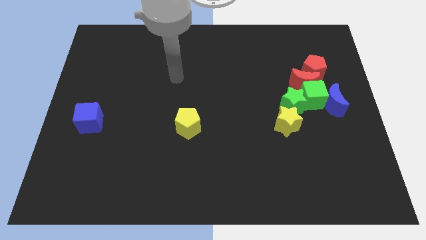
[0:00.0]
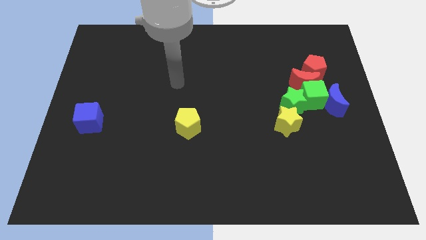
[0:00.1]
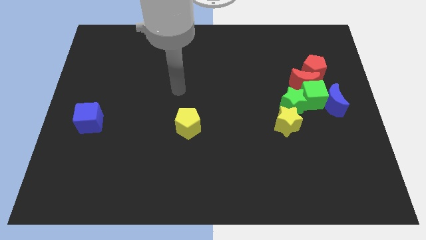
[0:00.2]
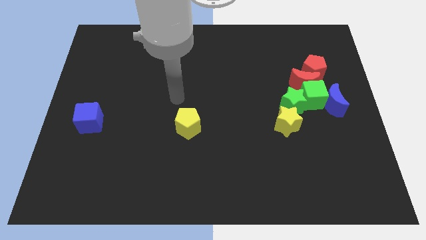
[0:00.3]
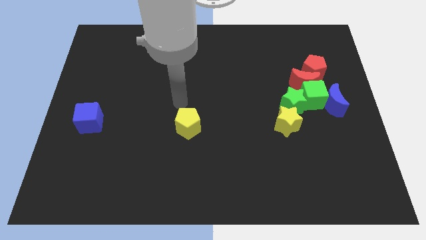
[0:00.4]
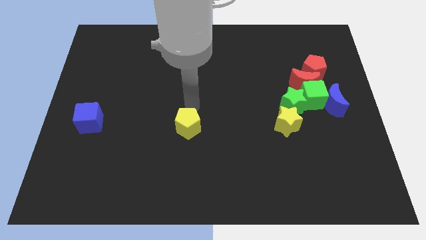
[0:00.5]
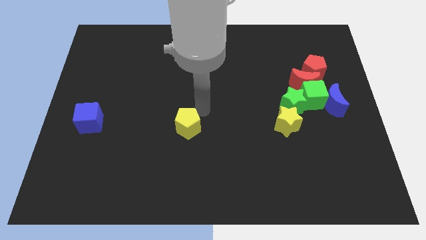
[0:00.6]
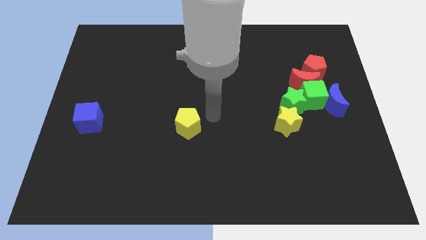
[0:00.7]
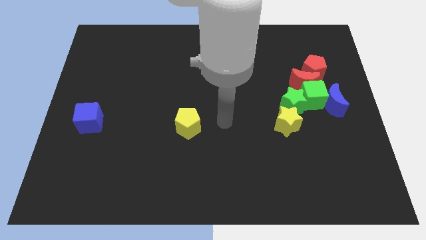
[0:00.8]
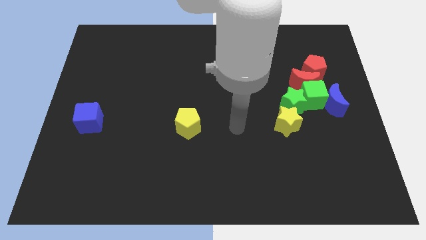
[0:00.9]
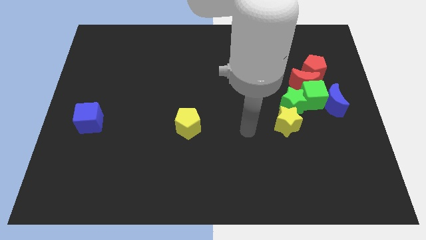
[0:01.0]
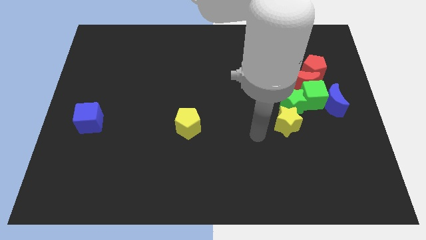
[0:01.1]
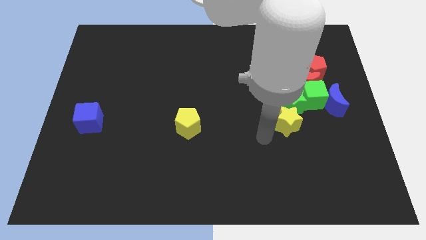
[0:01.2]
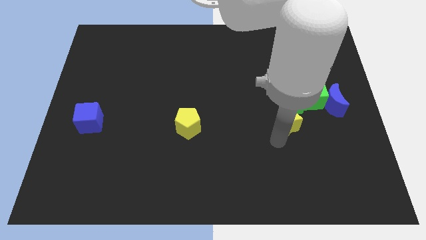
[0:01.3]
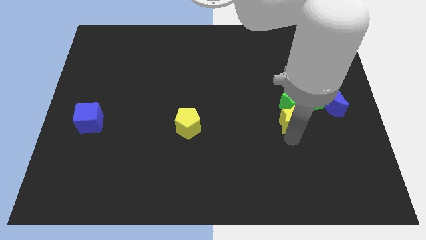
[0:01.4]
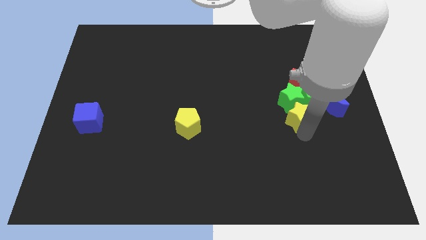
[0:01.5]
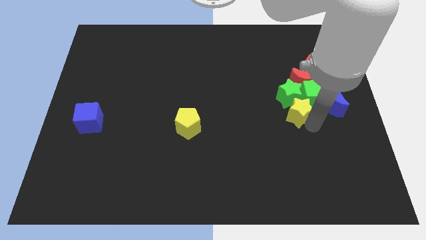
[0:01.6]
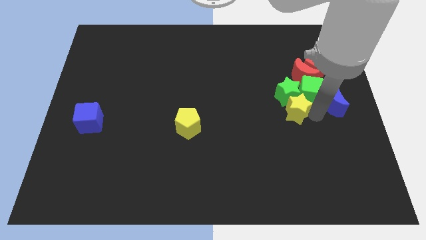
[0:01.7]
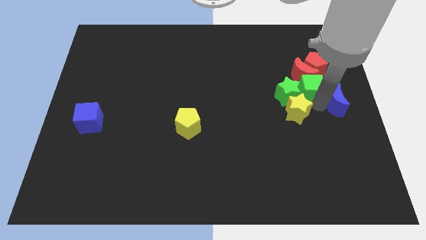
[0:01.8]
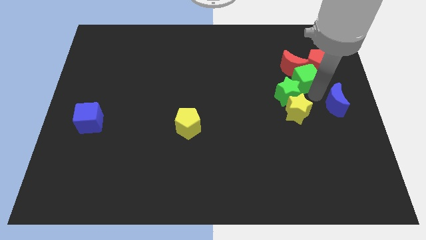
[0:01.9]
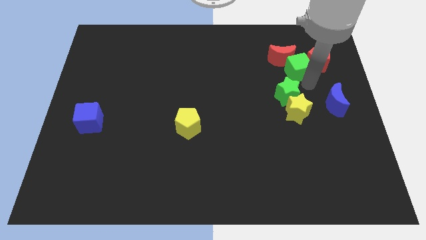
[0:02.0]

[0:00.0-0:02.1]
pull the red moon apart from the clump

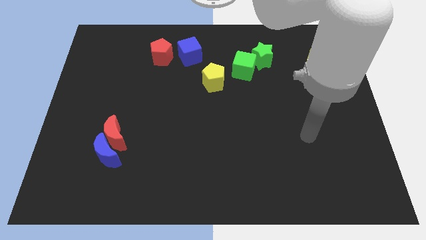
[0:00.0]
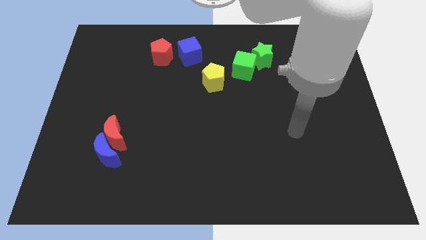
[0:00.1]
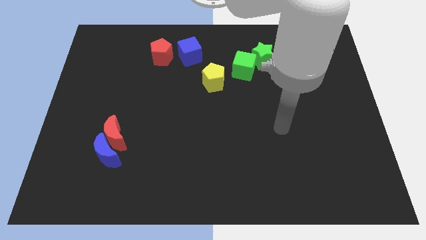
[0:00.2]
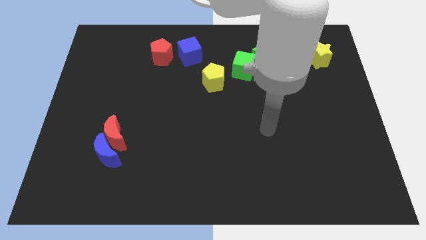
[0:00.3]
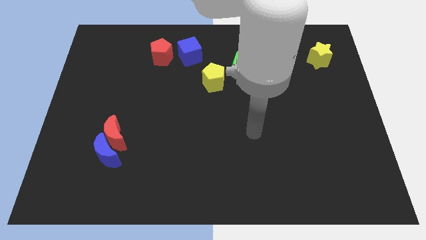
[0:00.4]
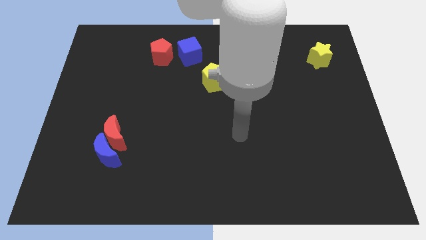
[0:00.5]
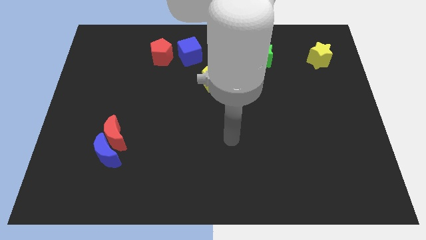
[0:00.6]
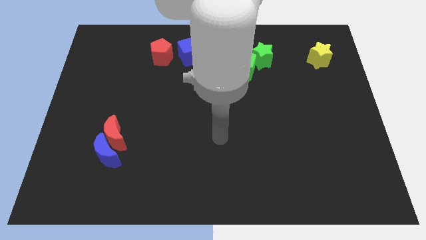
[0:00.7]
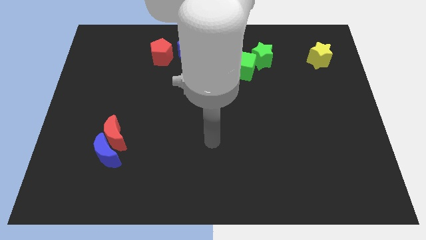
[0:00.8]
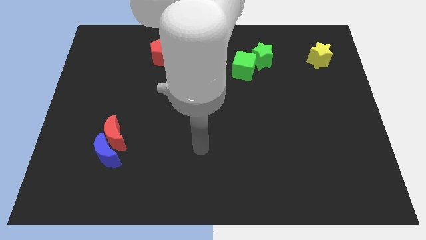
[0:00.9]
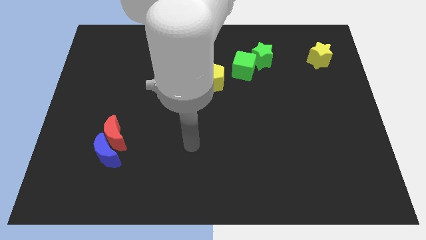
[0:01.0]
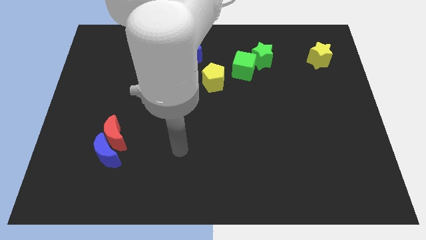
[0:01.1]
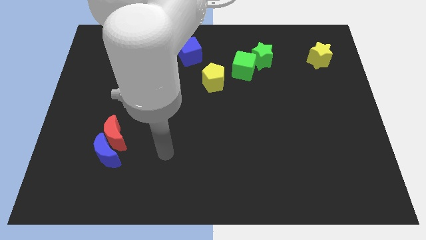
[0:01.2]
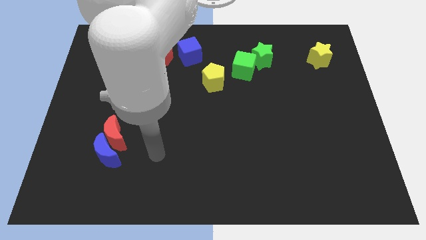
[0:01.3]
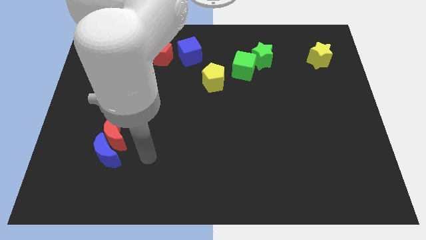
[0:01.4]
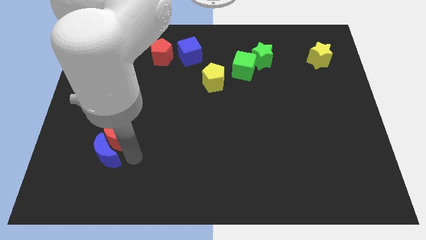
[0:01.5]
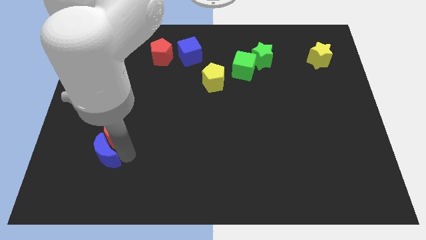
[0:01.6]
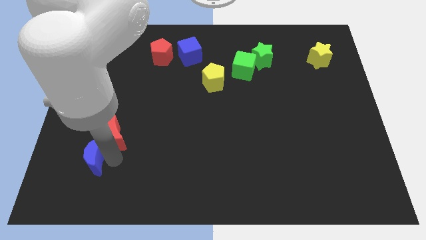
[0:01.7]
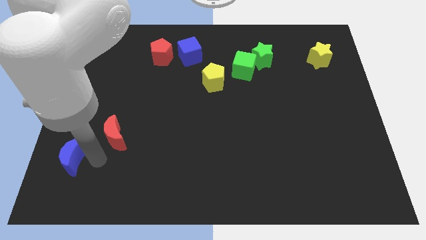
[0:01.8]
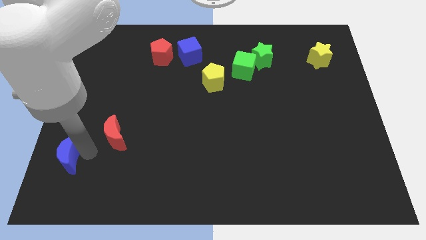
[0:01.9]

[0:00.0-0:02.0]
separate the red moon from the blue moon

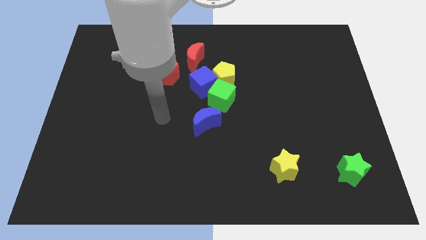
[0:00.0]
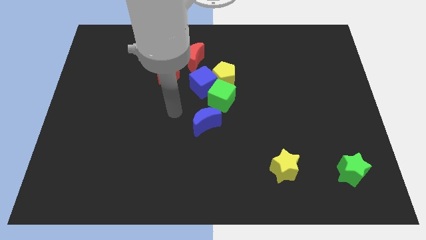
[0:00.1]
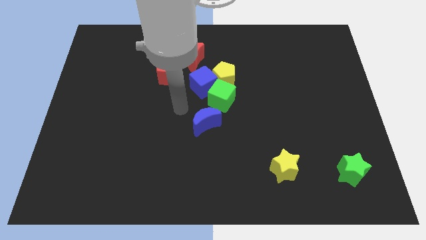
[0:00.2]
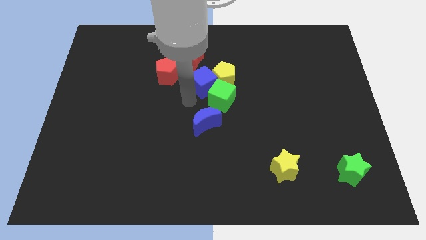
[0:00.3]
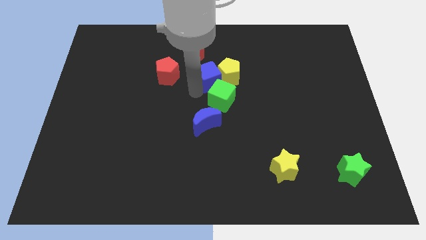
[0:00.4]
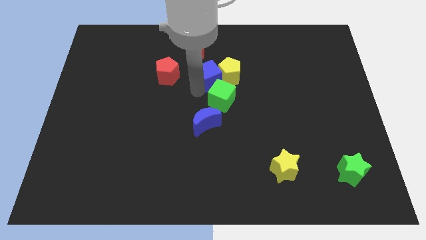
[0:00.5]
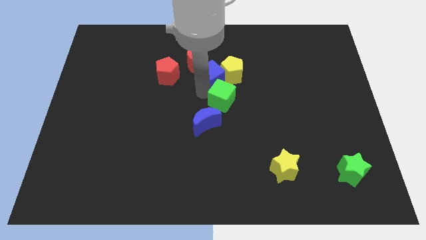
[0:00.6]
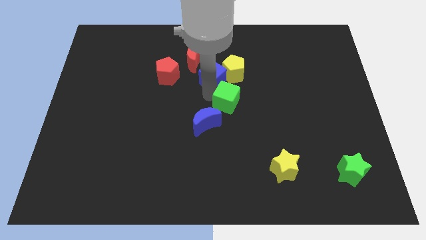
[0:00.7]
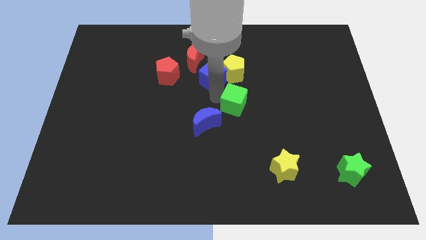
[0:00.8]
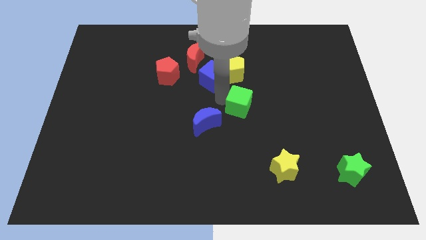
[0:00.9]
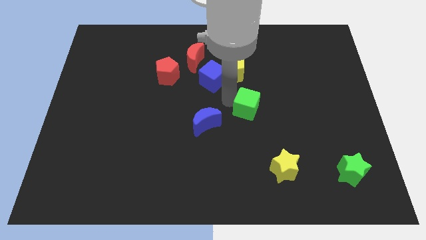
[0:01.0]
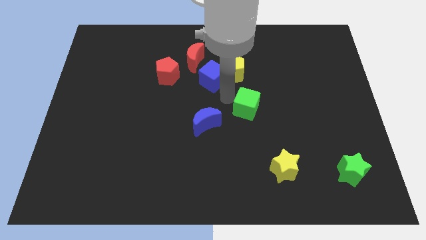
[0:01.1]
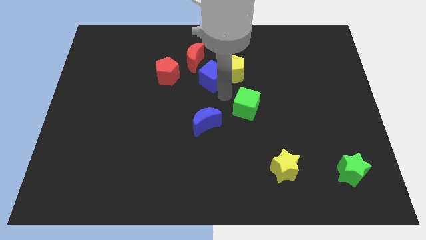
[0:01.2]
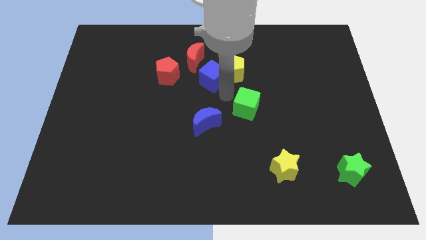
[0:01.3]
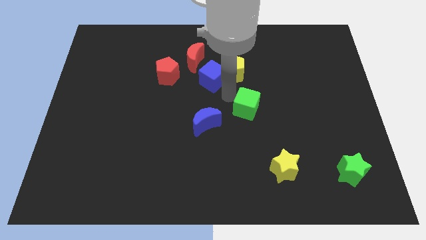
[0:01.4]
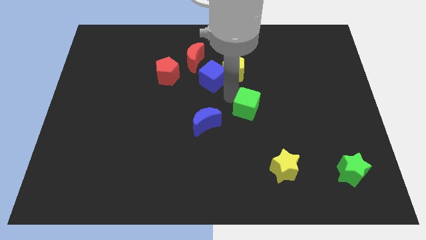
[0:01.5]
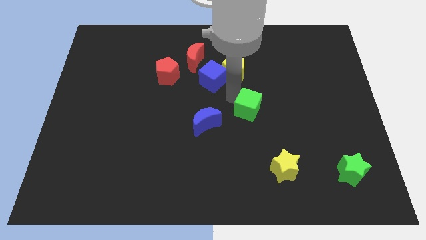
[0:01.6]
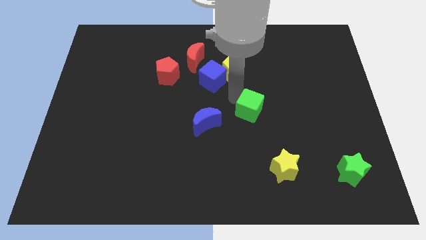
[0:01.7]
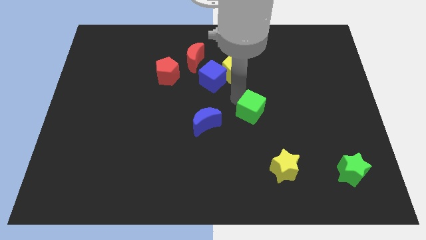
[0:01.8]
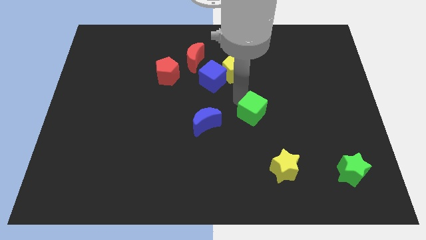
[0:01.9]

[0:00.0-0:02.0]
pull the green cube apart from the group of blocks

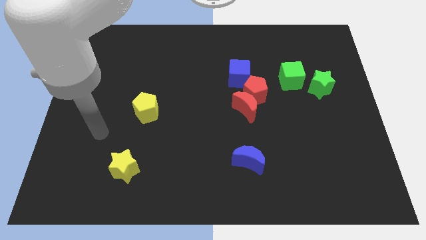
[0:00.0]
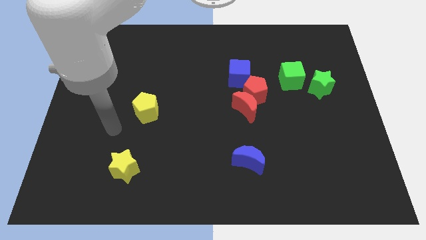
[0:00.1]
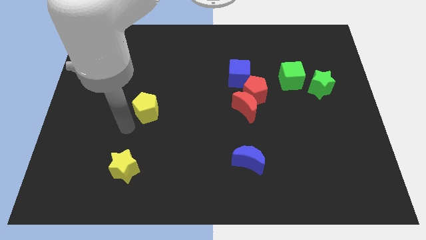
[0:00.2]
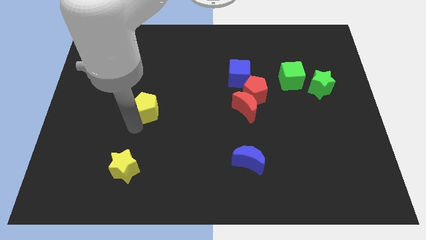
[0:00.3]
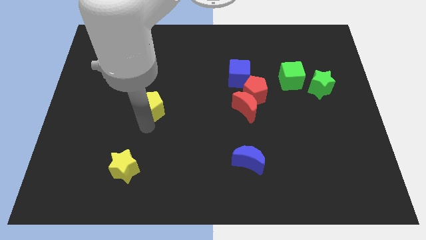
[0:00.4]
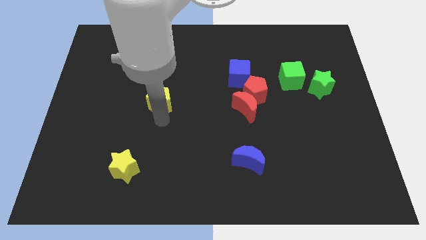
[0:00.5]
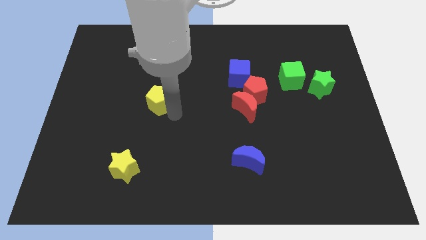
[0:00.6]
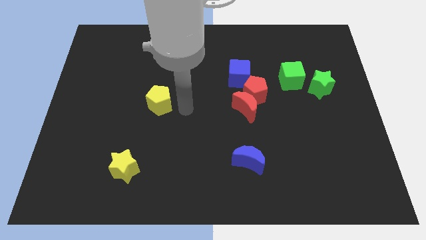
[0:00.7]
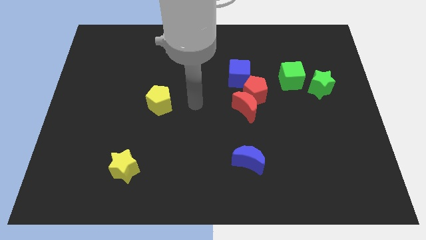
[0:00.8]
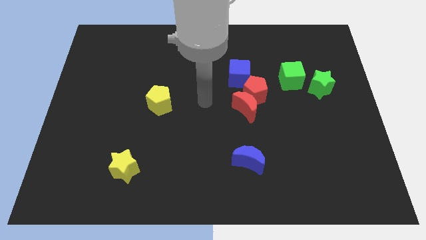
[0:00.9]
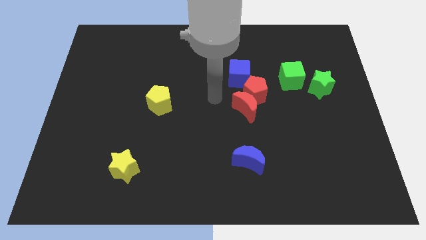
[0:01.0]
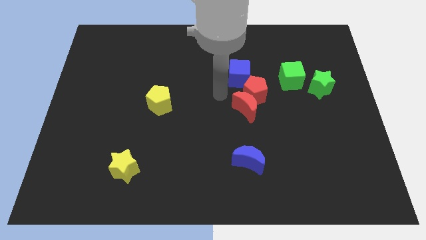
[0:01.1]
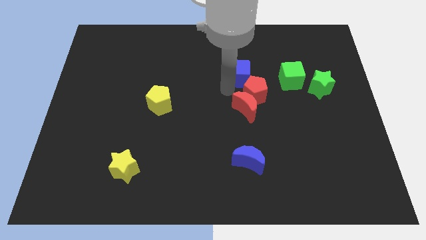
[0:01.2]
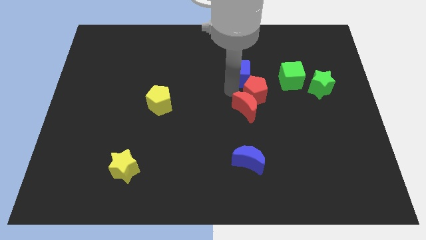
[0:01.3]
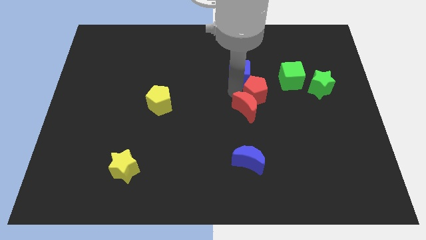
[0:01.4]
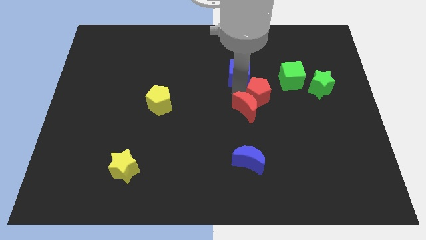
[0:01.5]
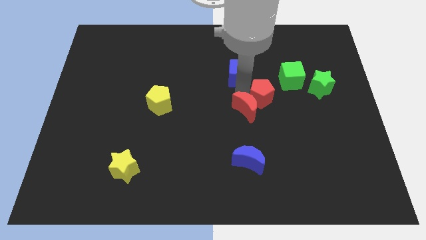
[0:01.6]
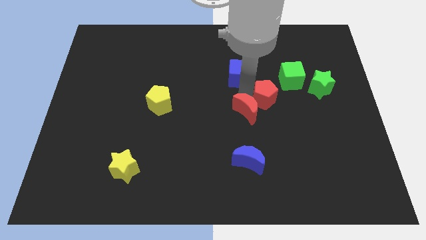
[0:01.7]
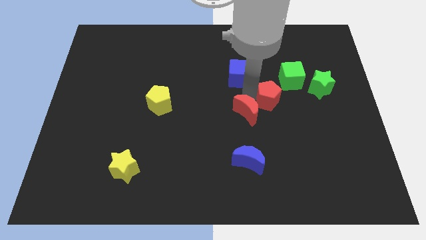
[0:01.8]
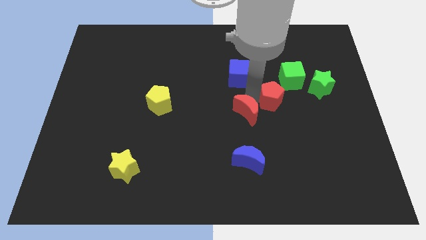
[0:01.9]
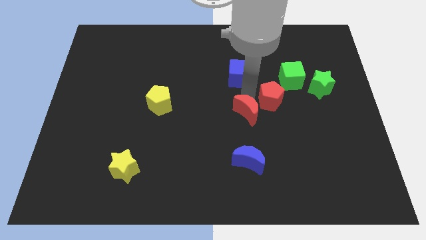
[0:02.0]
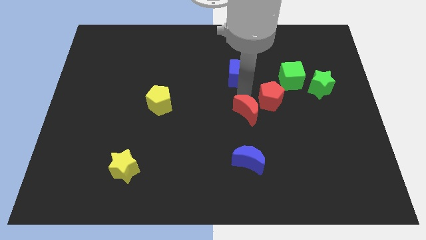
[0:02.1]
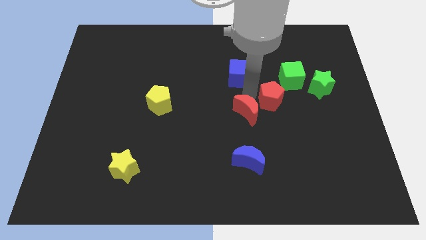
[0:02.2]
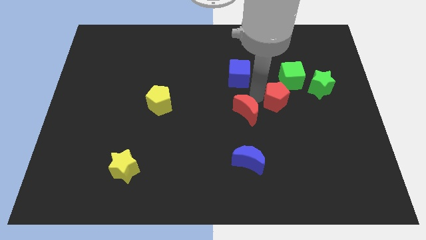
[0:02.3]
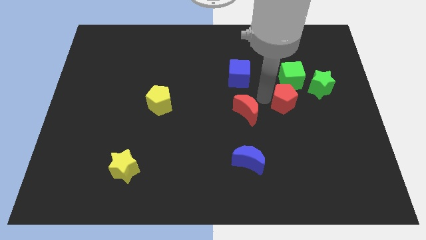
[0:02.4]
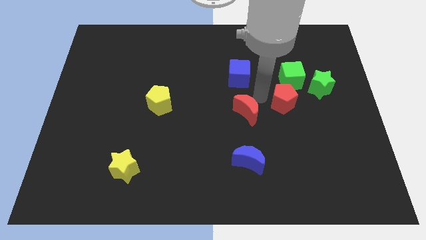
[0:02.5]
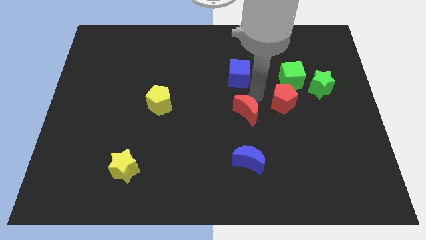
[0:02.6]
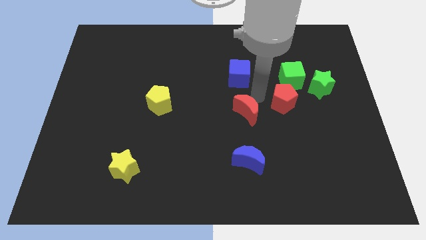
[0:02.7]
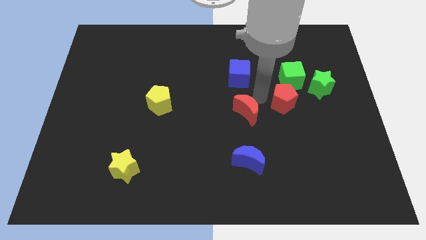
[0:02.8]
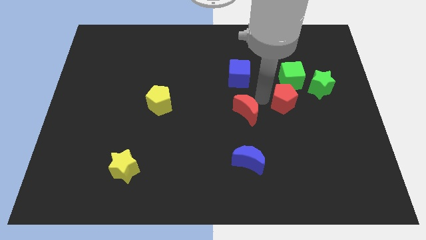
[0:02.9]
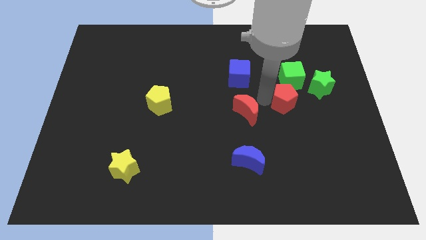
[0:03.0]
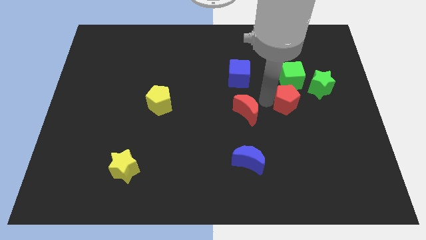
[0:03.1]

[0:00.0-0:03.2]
pull the red pentagon apart from the red moon and blue cube
